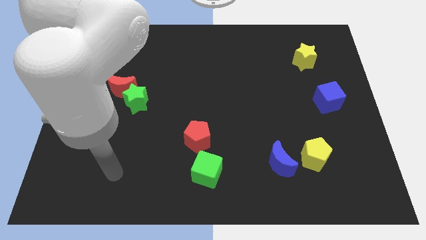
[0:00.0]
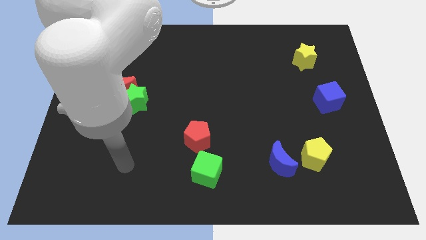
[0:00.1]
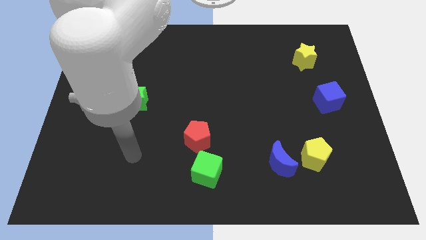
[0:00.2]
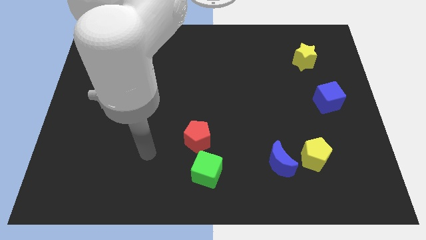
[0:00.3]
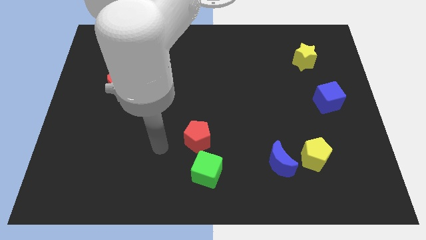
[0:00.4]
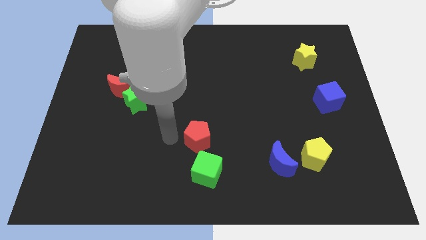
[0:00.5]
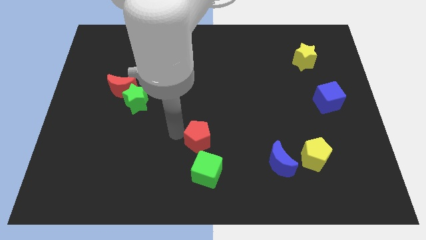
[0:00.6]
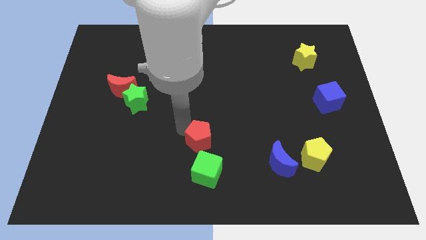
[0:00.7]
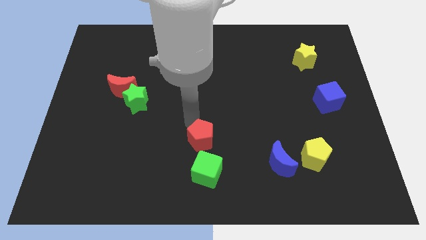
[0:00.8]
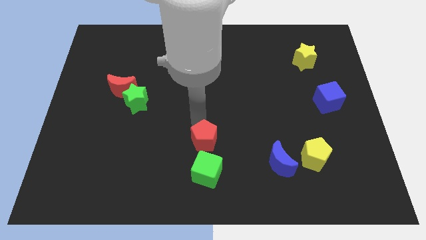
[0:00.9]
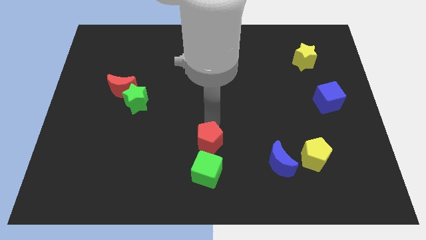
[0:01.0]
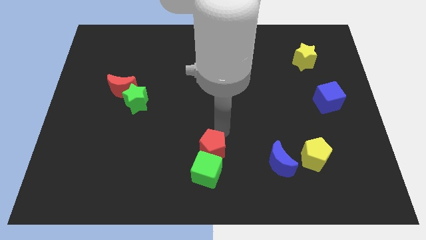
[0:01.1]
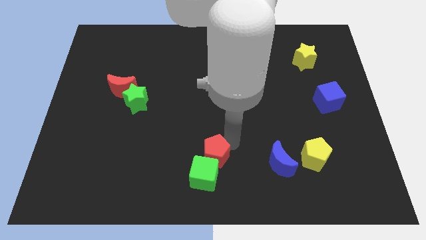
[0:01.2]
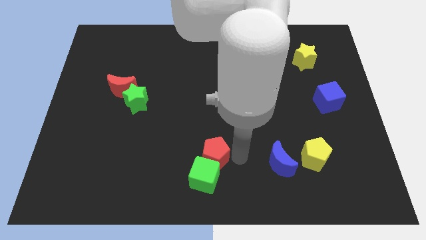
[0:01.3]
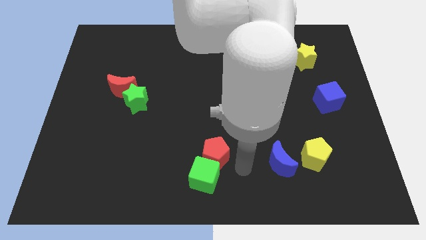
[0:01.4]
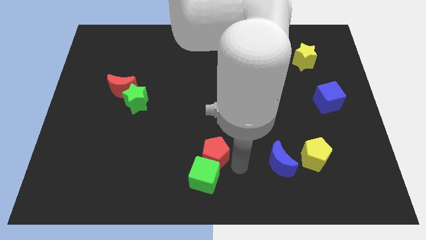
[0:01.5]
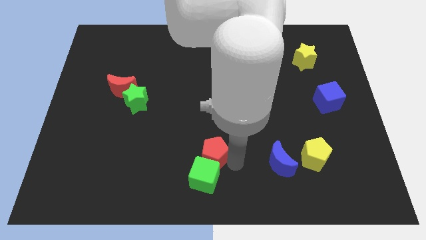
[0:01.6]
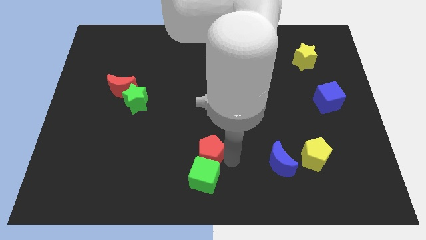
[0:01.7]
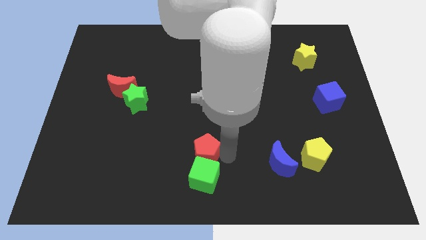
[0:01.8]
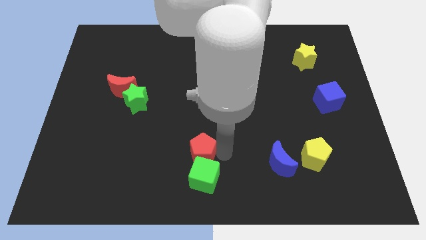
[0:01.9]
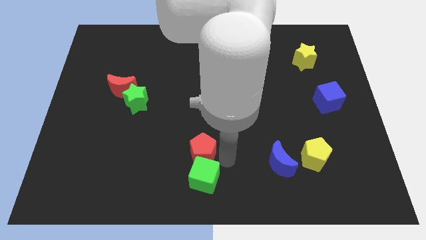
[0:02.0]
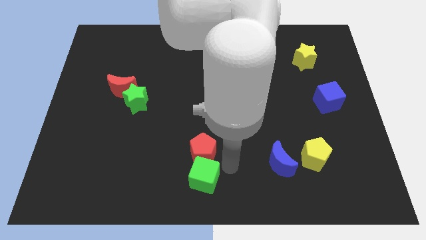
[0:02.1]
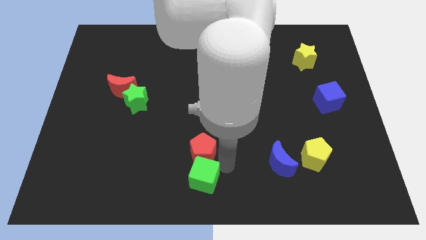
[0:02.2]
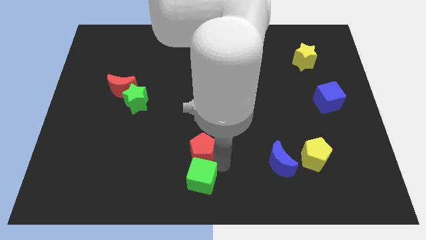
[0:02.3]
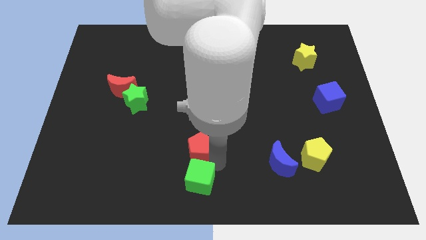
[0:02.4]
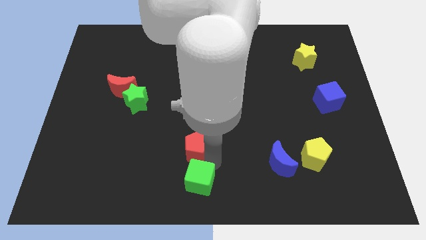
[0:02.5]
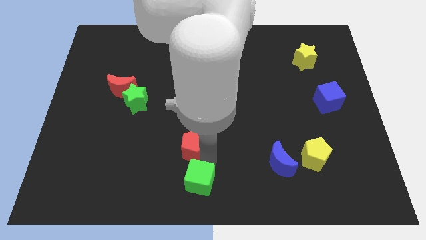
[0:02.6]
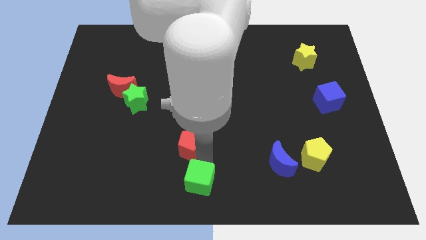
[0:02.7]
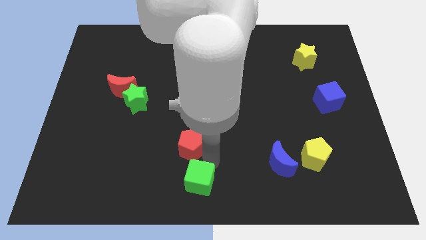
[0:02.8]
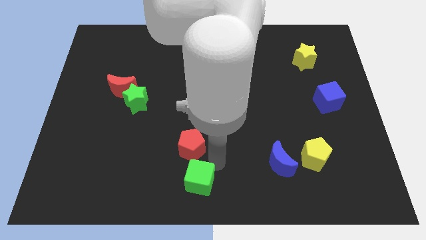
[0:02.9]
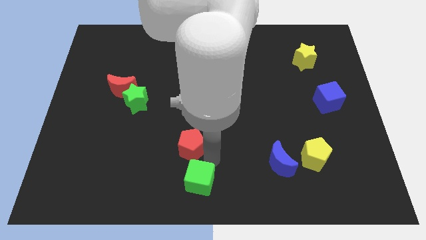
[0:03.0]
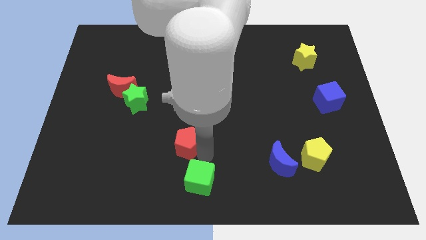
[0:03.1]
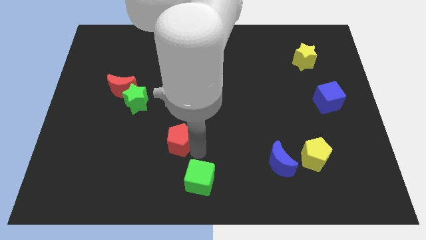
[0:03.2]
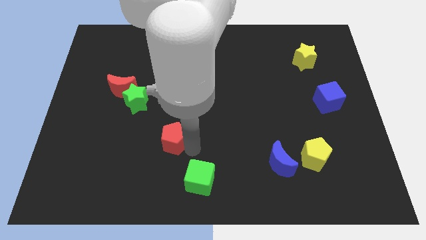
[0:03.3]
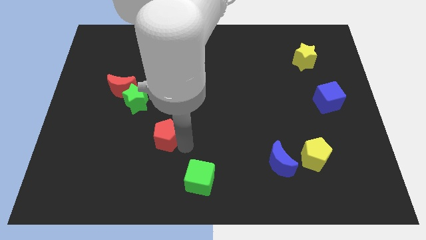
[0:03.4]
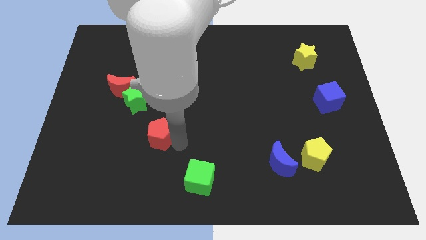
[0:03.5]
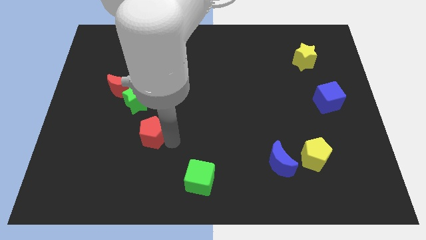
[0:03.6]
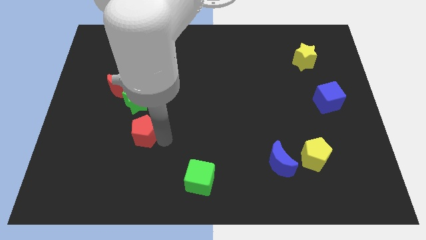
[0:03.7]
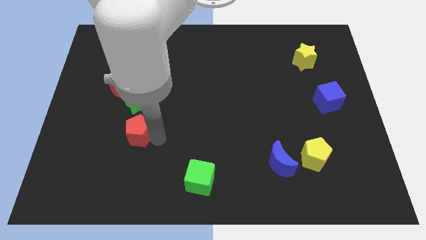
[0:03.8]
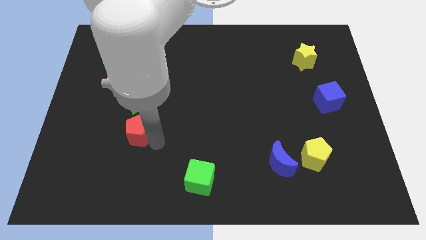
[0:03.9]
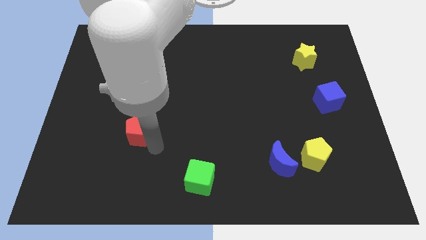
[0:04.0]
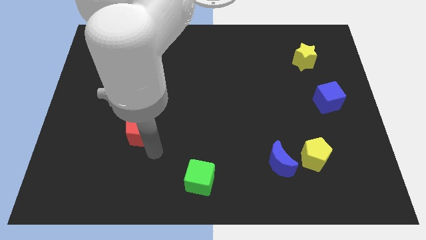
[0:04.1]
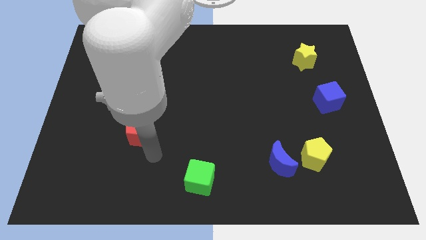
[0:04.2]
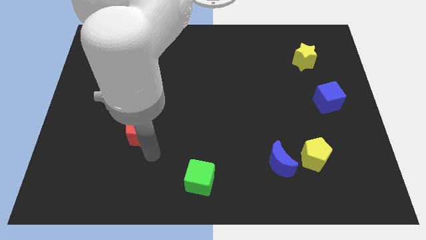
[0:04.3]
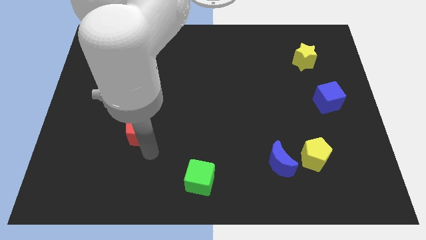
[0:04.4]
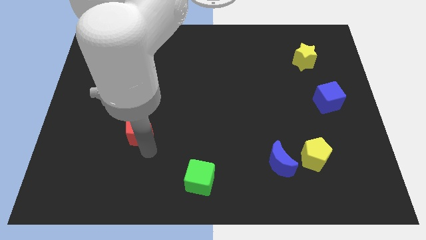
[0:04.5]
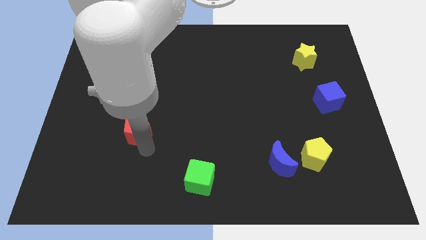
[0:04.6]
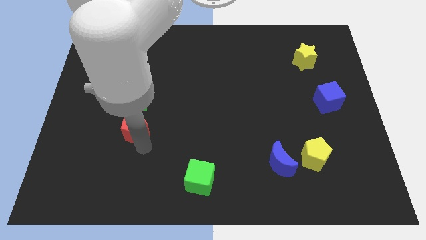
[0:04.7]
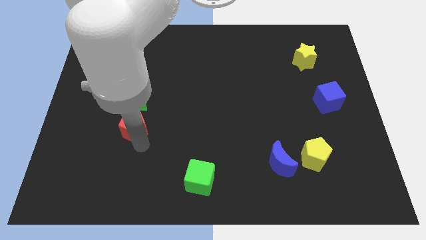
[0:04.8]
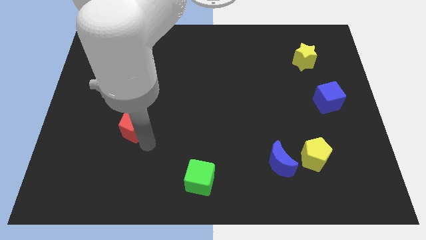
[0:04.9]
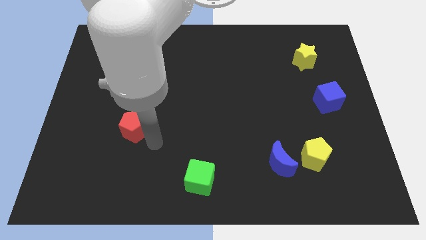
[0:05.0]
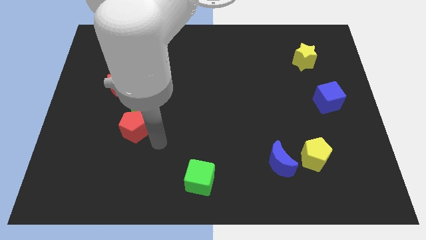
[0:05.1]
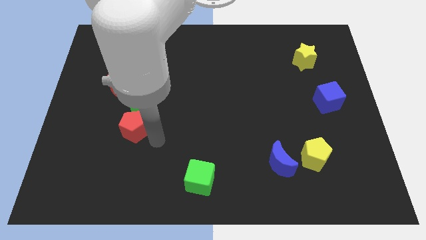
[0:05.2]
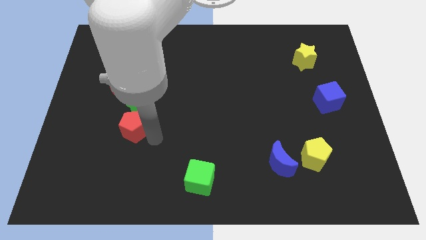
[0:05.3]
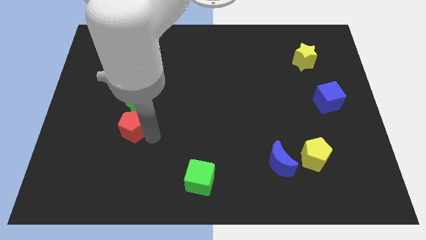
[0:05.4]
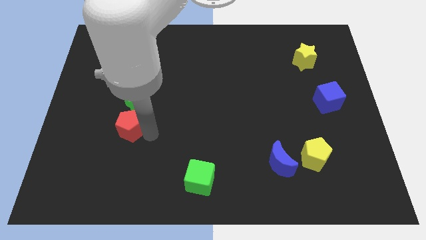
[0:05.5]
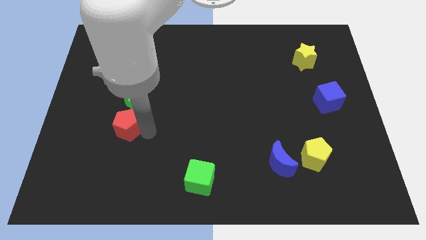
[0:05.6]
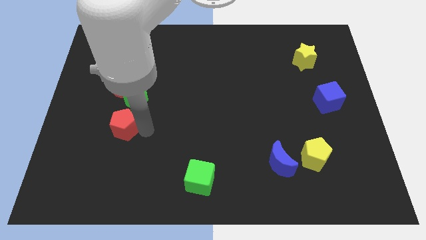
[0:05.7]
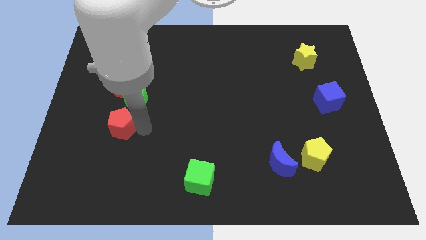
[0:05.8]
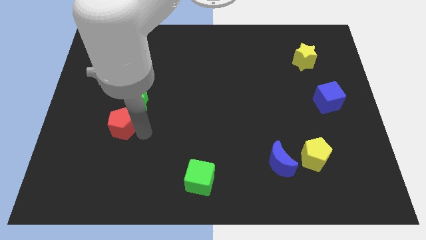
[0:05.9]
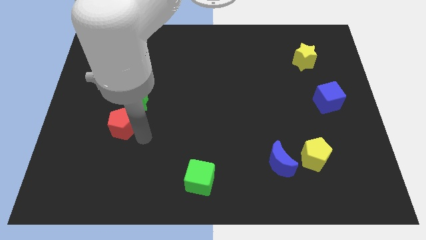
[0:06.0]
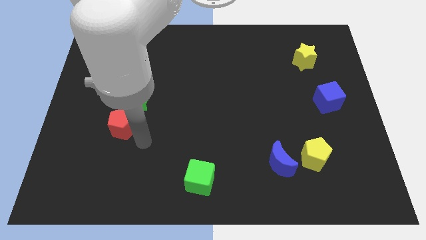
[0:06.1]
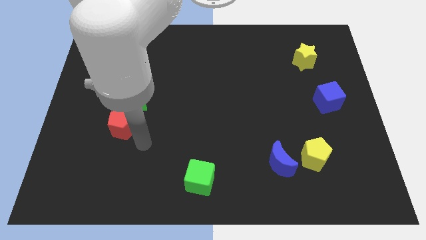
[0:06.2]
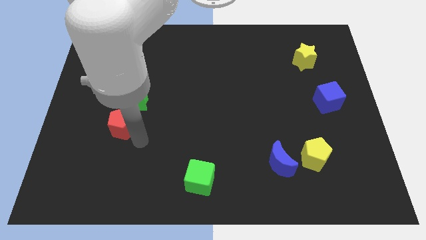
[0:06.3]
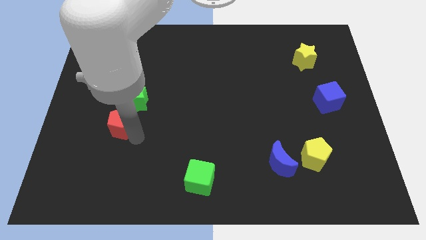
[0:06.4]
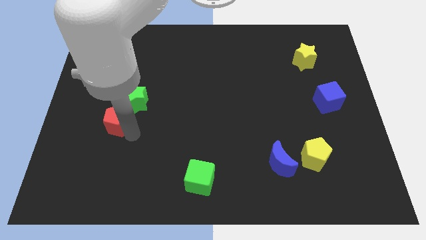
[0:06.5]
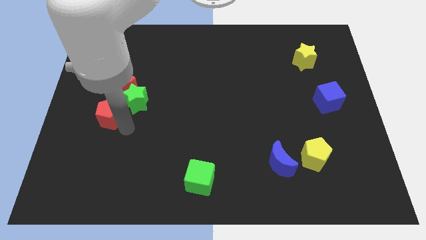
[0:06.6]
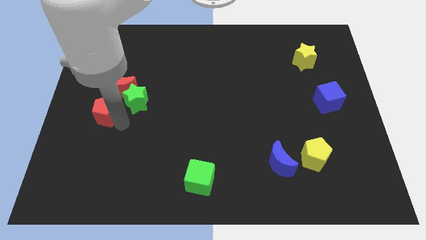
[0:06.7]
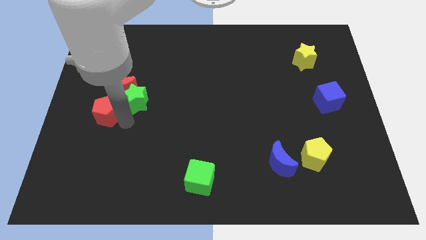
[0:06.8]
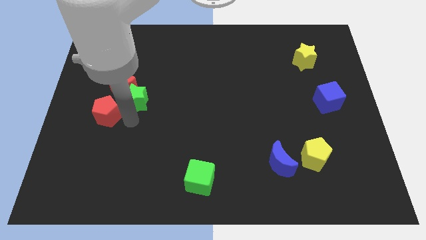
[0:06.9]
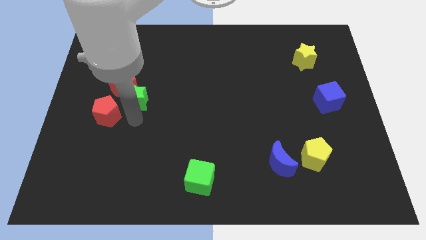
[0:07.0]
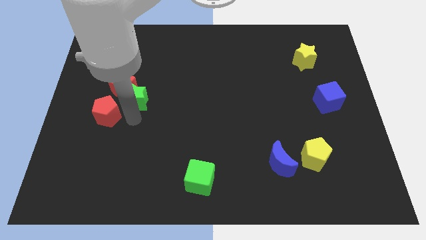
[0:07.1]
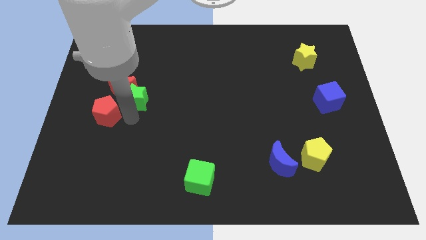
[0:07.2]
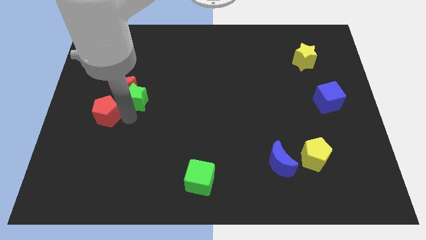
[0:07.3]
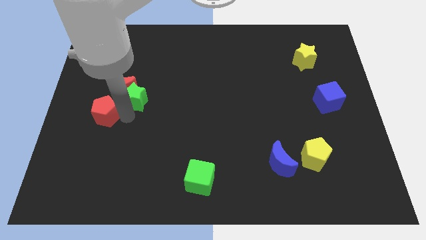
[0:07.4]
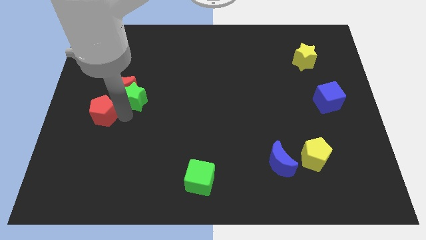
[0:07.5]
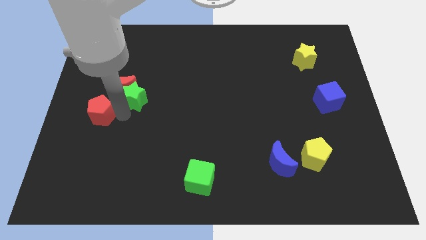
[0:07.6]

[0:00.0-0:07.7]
move the red pentagon to the left side
